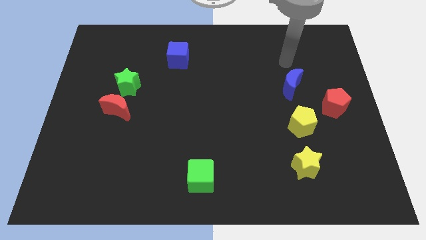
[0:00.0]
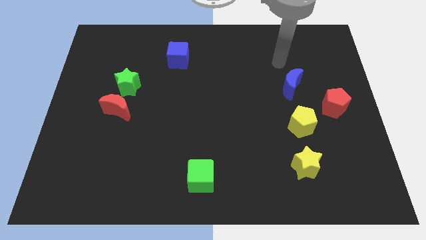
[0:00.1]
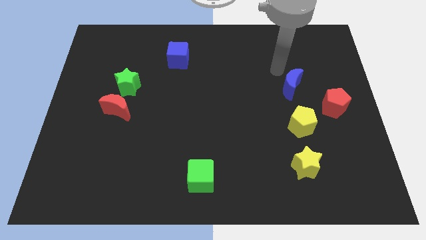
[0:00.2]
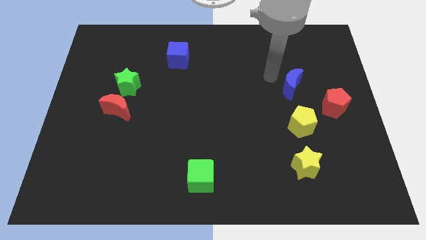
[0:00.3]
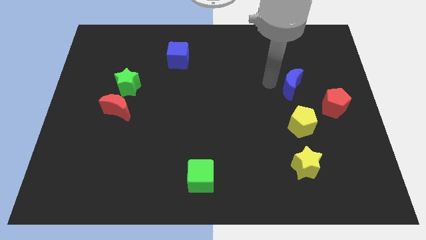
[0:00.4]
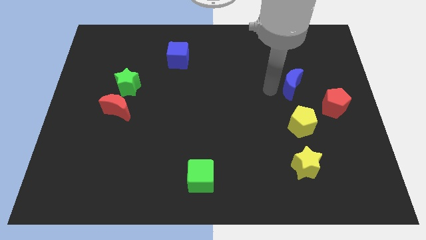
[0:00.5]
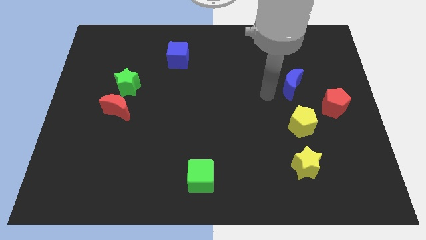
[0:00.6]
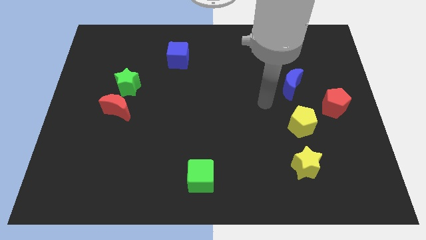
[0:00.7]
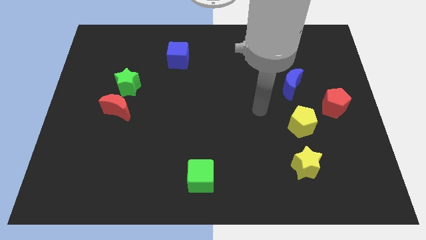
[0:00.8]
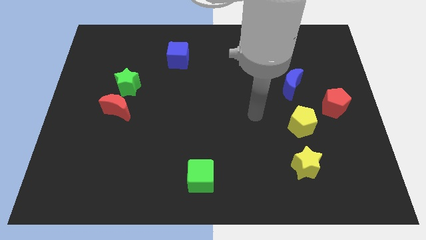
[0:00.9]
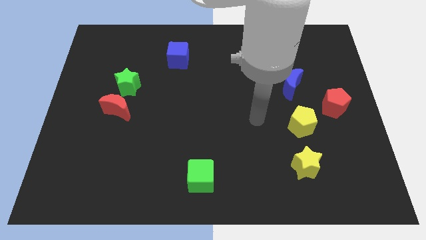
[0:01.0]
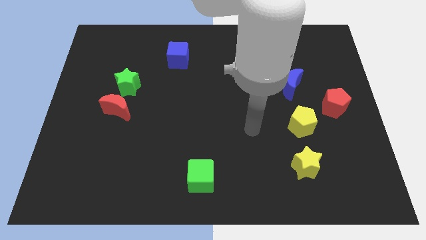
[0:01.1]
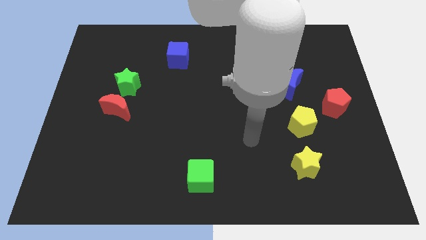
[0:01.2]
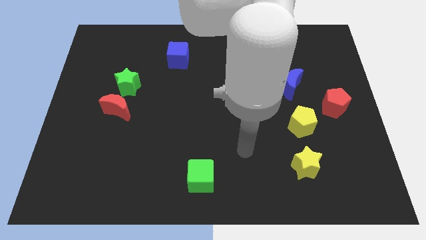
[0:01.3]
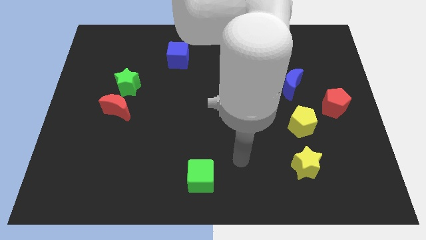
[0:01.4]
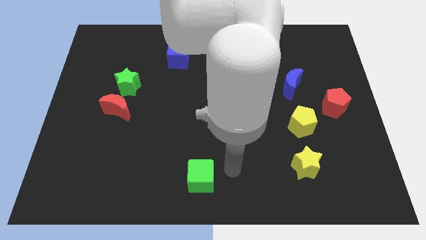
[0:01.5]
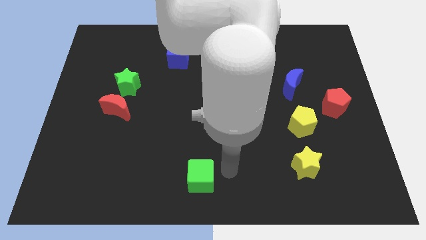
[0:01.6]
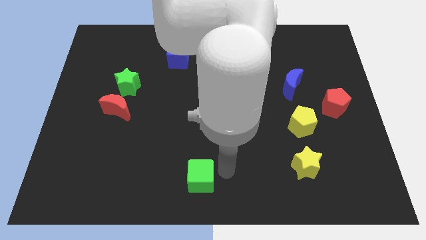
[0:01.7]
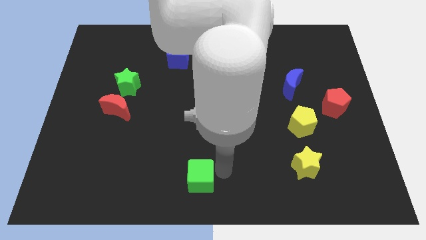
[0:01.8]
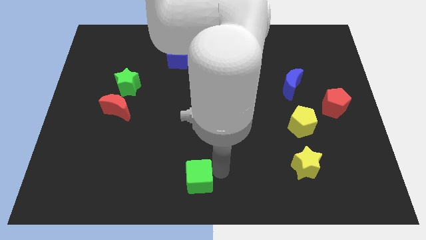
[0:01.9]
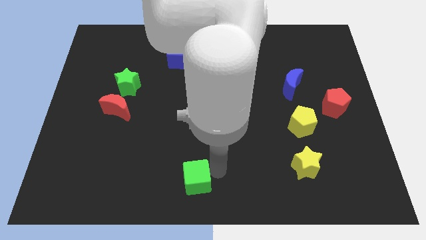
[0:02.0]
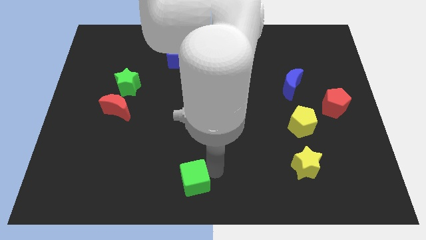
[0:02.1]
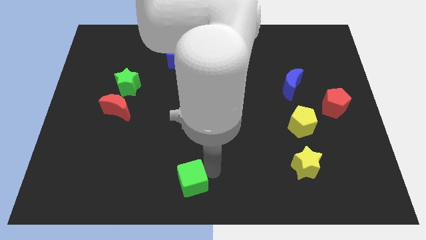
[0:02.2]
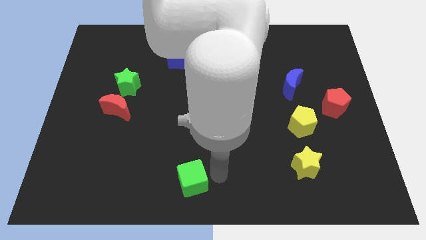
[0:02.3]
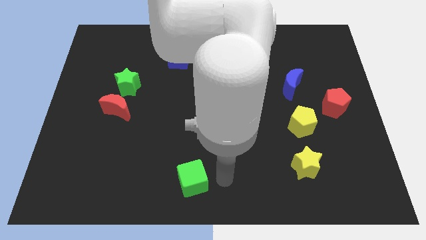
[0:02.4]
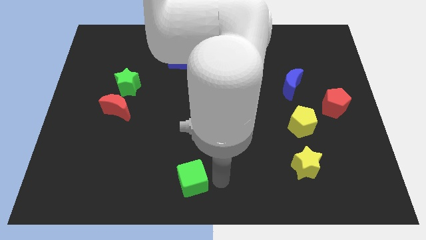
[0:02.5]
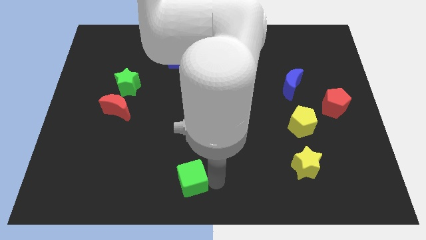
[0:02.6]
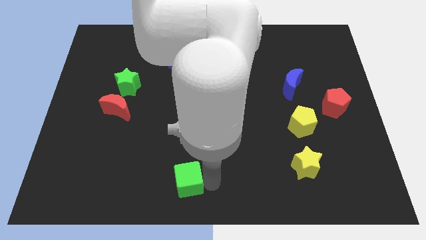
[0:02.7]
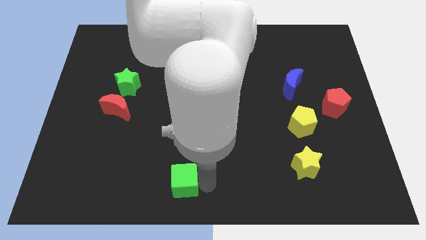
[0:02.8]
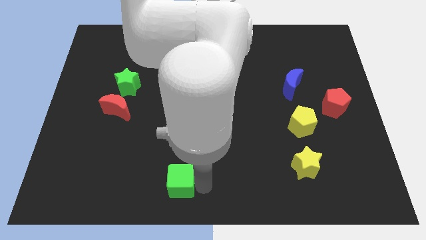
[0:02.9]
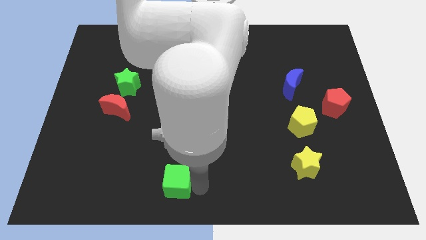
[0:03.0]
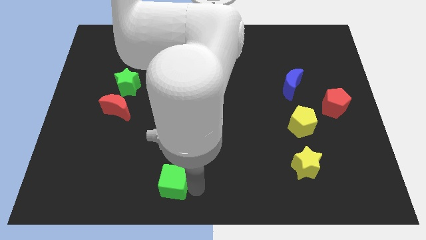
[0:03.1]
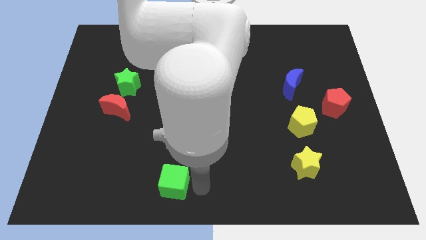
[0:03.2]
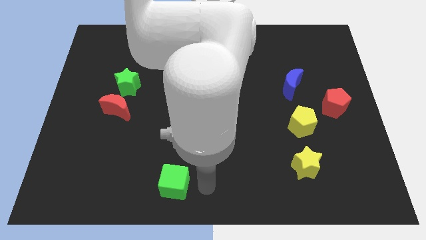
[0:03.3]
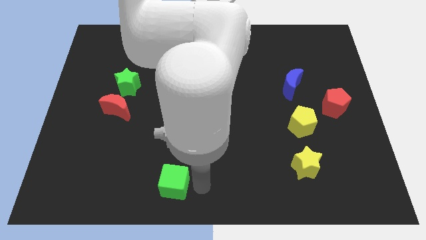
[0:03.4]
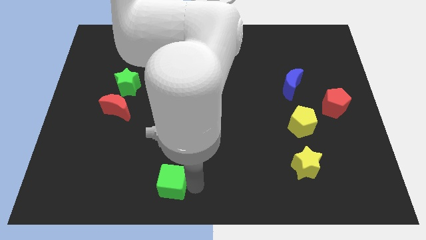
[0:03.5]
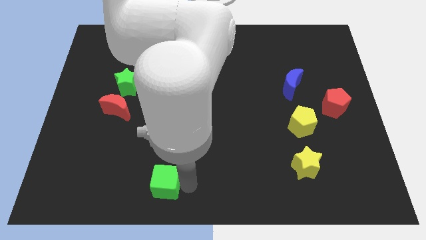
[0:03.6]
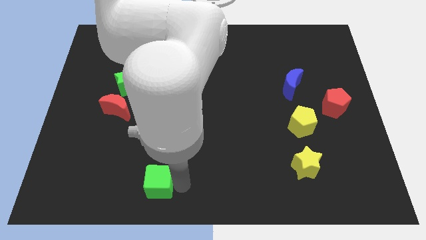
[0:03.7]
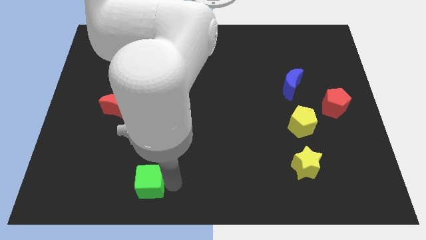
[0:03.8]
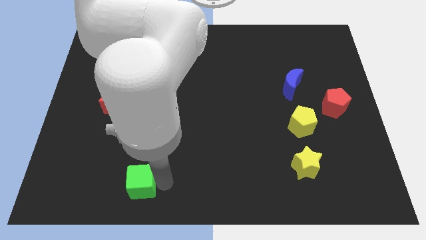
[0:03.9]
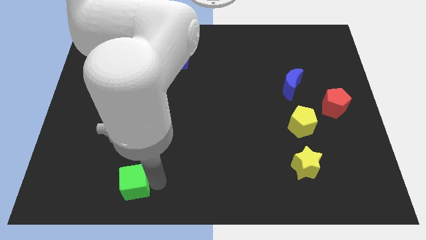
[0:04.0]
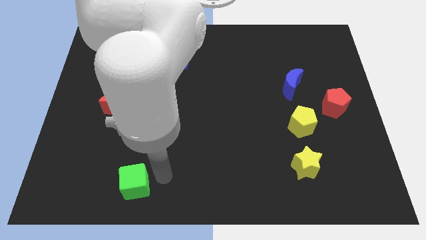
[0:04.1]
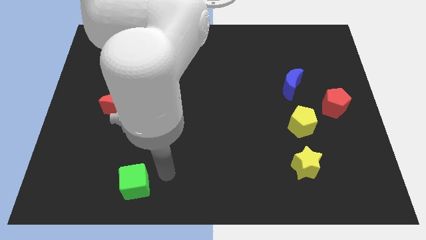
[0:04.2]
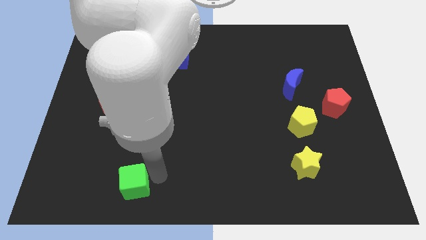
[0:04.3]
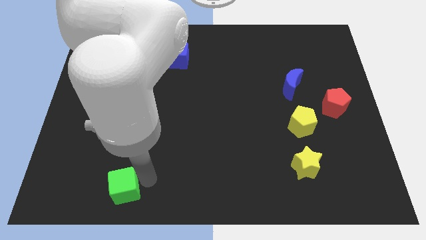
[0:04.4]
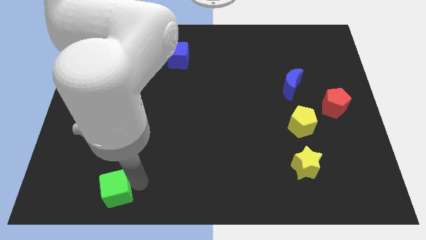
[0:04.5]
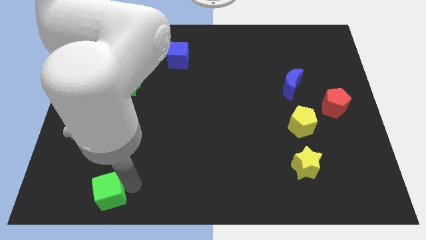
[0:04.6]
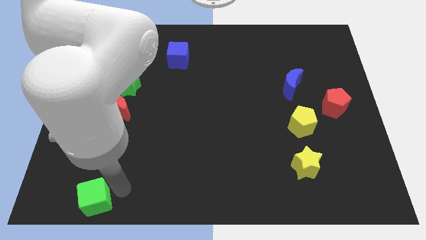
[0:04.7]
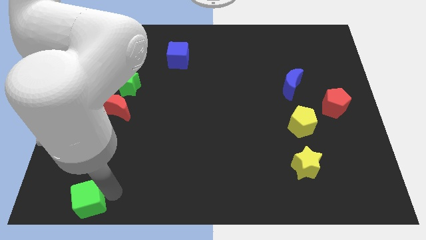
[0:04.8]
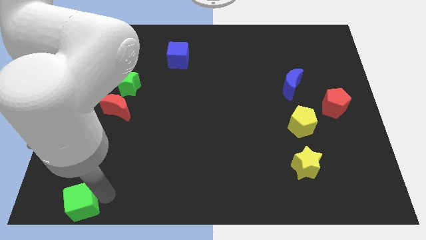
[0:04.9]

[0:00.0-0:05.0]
slide the green cube to the lower left corner

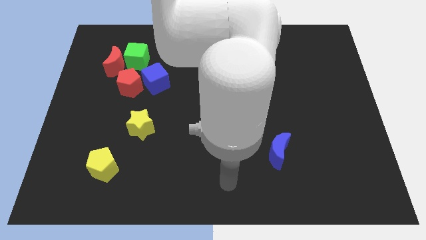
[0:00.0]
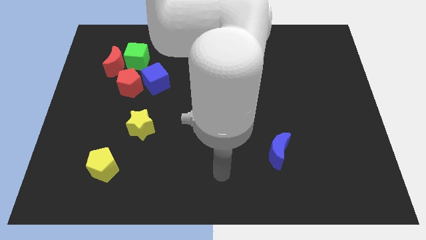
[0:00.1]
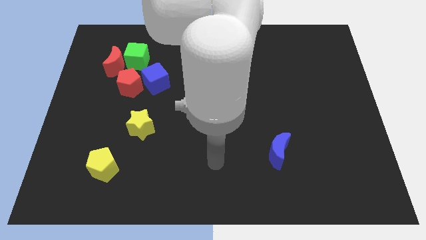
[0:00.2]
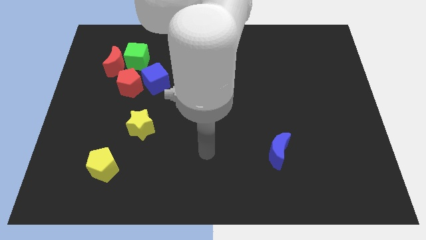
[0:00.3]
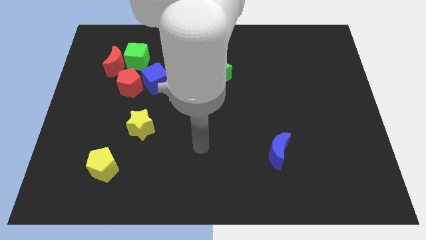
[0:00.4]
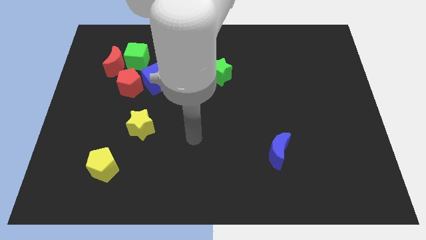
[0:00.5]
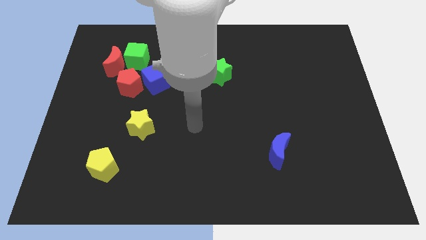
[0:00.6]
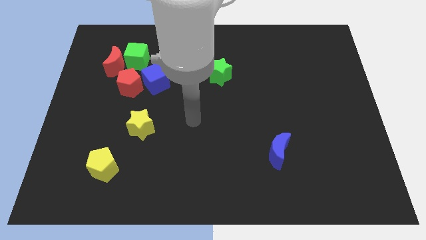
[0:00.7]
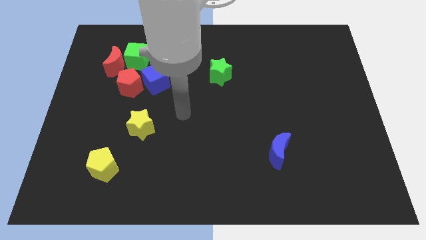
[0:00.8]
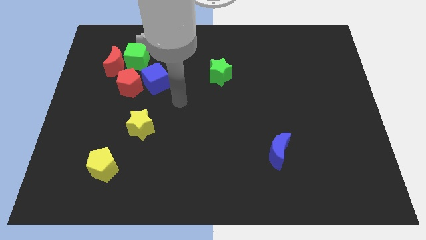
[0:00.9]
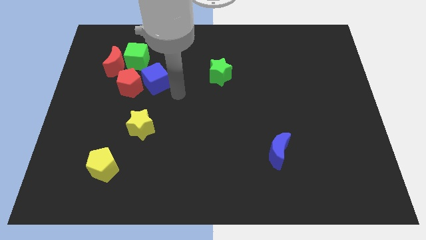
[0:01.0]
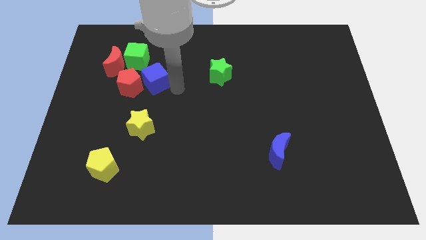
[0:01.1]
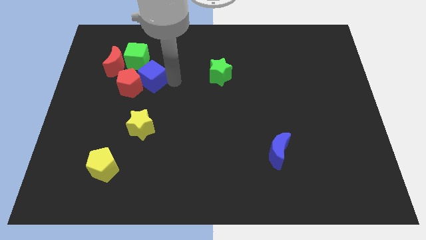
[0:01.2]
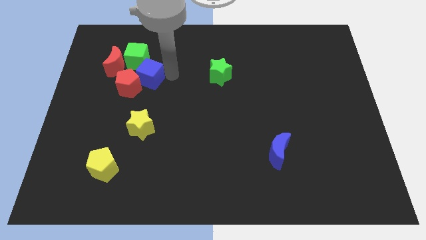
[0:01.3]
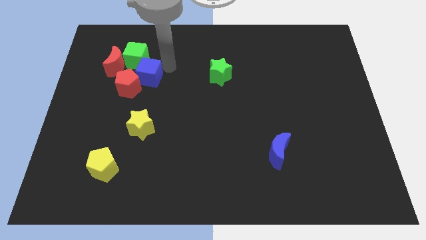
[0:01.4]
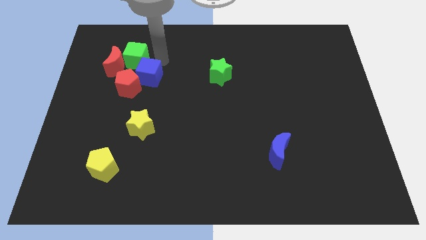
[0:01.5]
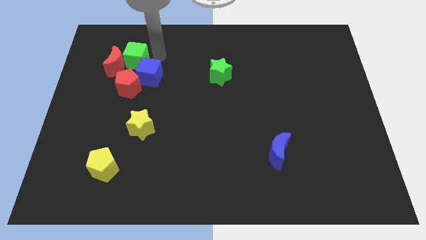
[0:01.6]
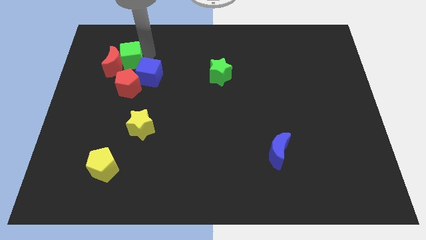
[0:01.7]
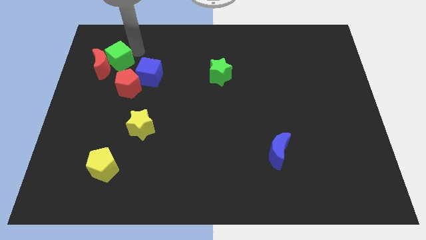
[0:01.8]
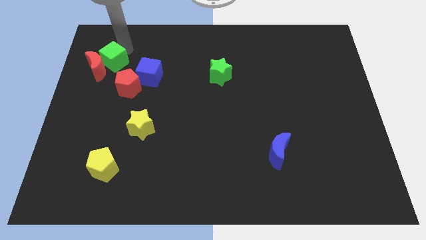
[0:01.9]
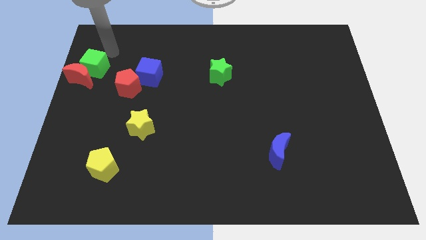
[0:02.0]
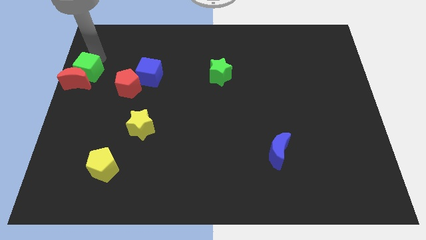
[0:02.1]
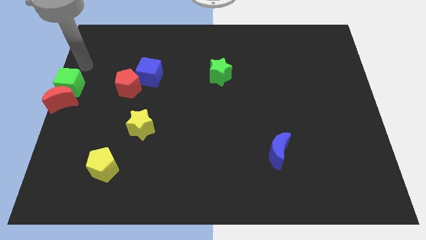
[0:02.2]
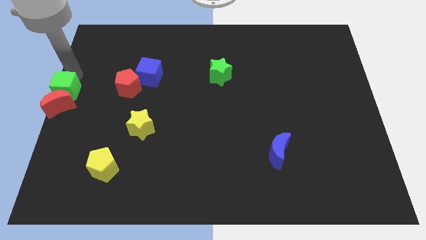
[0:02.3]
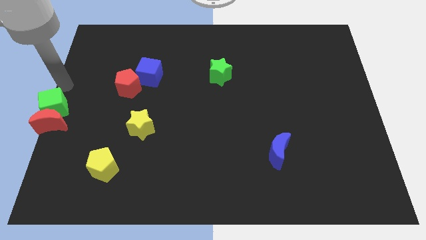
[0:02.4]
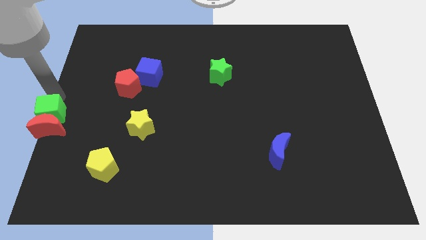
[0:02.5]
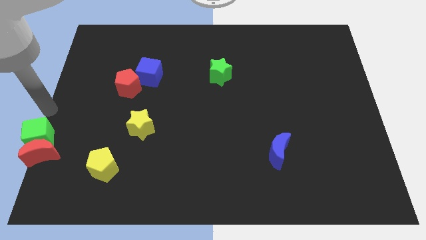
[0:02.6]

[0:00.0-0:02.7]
move the red moon to the bottom left of the board
